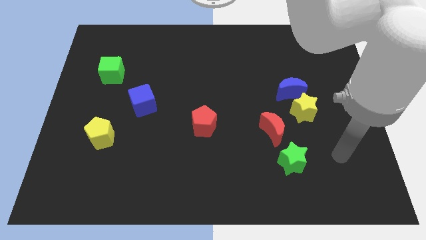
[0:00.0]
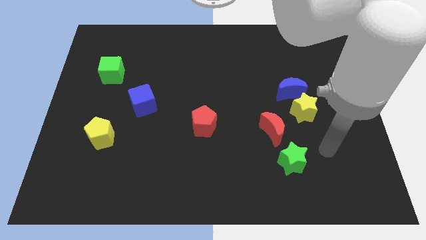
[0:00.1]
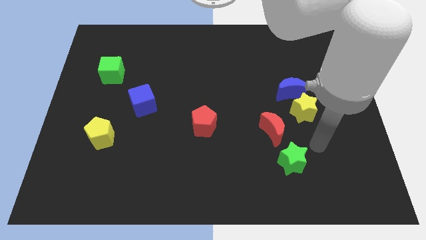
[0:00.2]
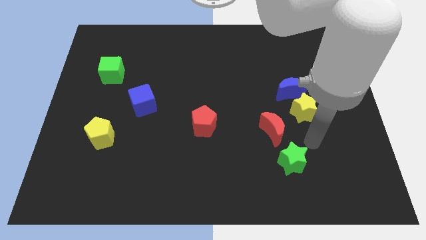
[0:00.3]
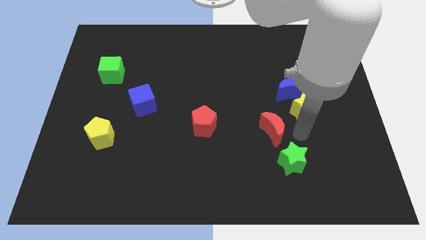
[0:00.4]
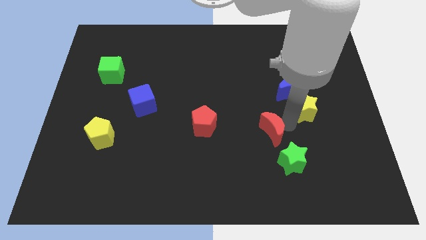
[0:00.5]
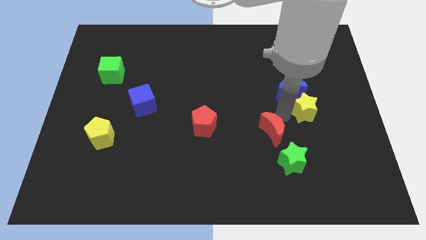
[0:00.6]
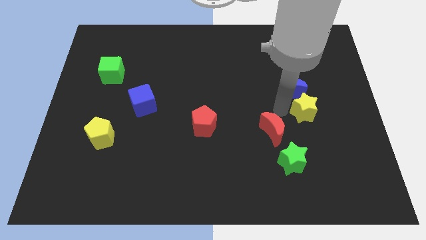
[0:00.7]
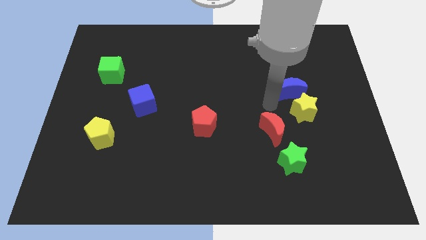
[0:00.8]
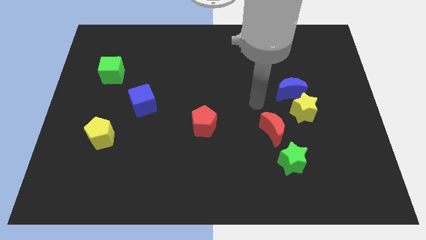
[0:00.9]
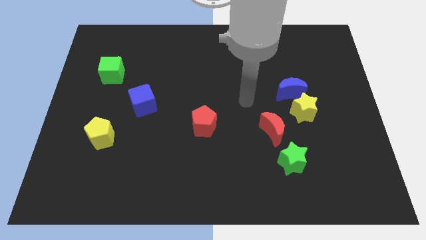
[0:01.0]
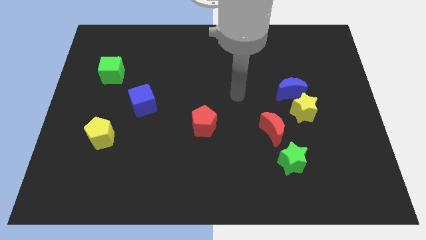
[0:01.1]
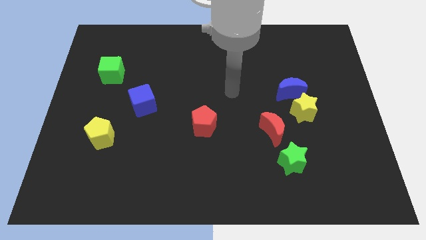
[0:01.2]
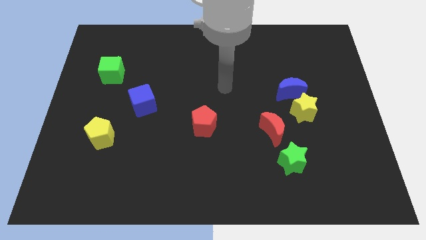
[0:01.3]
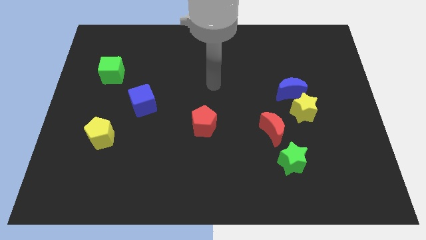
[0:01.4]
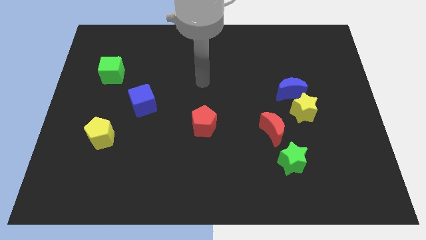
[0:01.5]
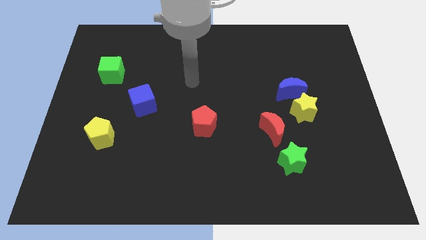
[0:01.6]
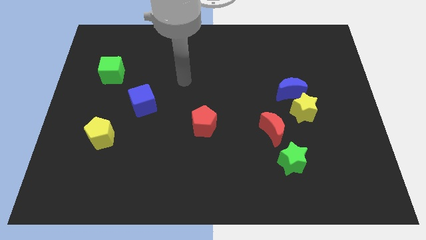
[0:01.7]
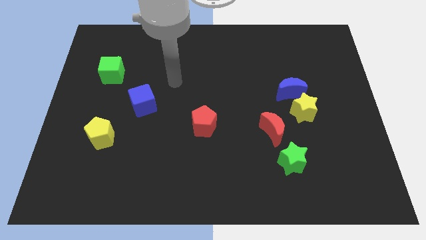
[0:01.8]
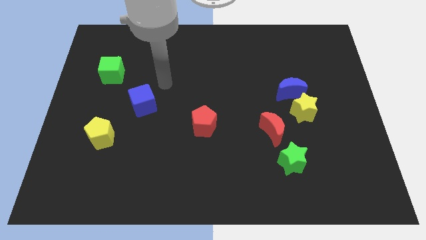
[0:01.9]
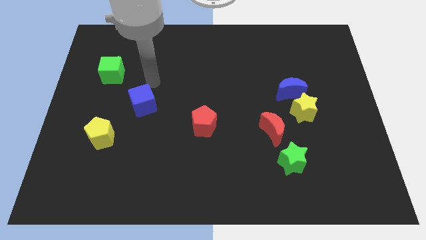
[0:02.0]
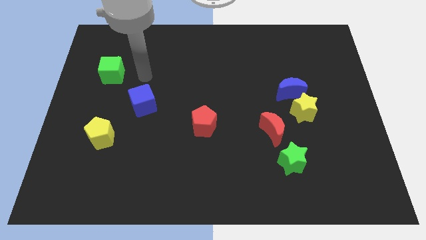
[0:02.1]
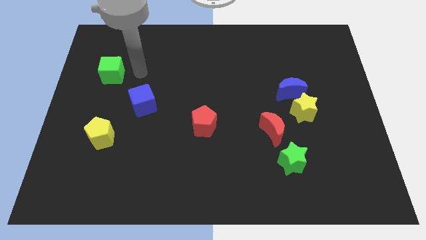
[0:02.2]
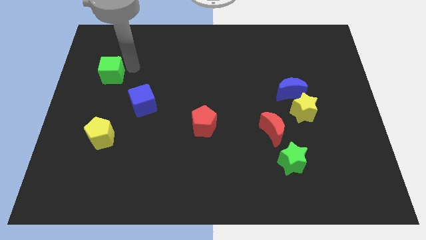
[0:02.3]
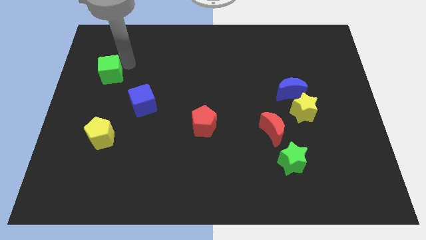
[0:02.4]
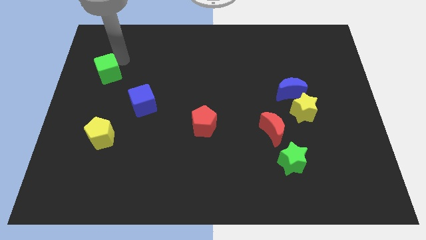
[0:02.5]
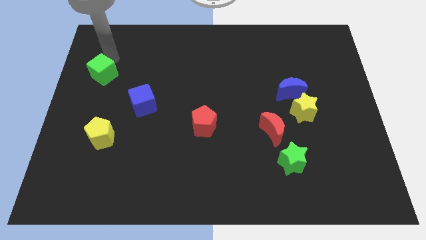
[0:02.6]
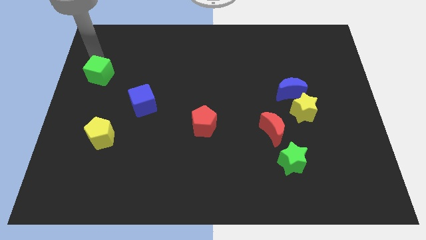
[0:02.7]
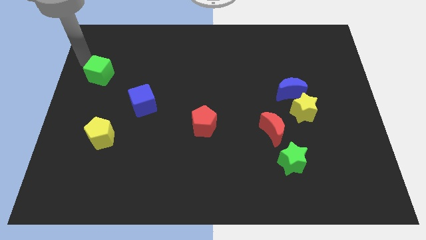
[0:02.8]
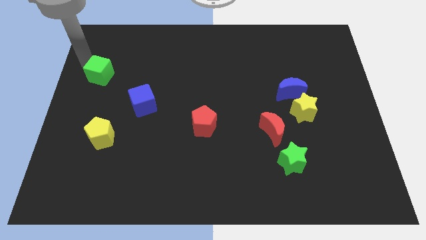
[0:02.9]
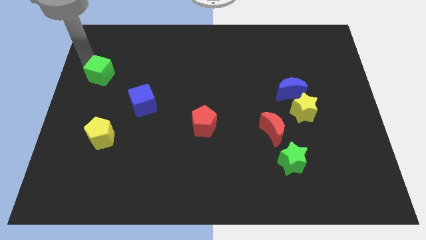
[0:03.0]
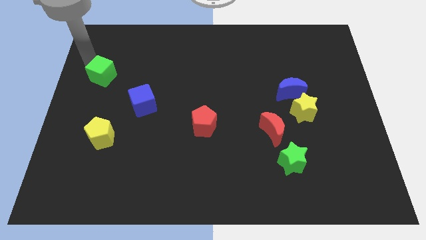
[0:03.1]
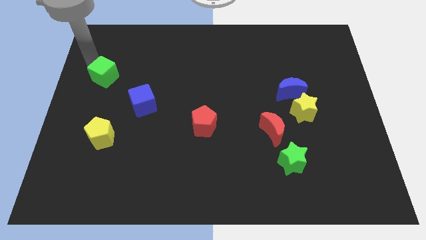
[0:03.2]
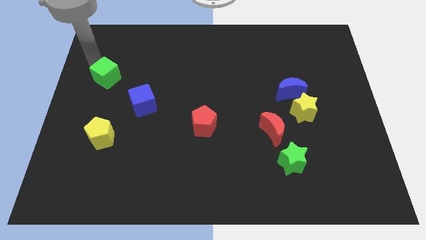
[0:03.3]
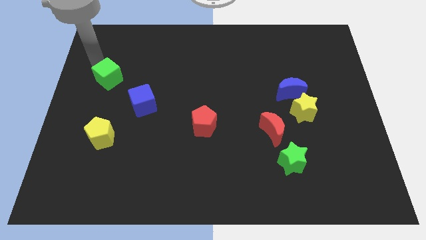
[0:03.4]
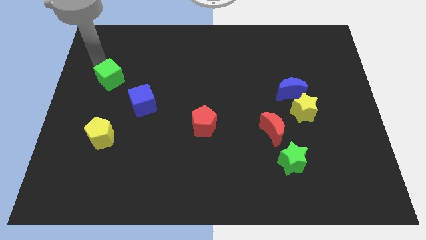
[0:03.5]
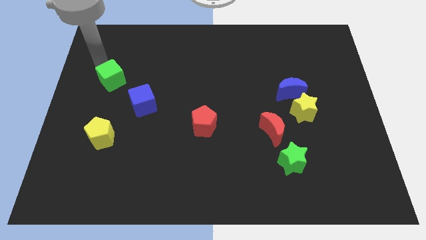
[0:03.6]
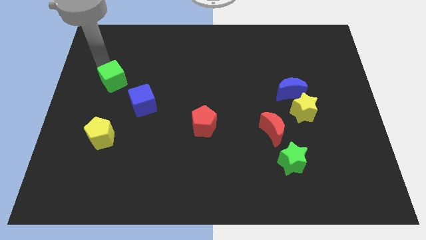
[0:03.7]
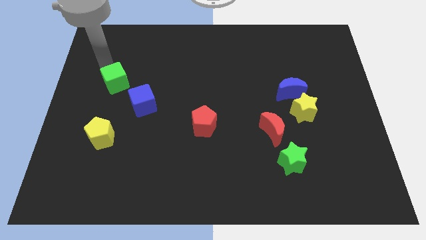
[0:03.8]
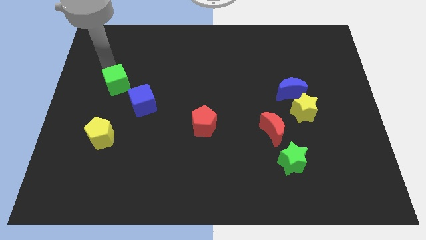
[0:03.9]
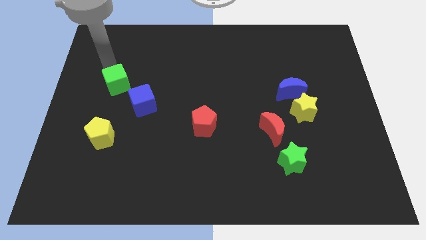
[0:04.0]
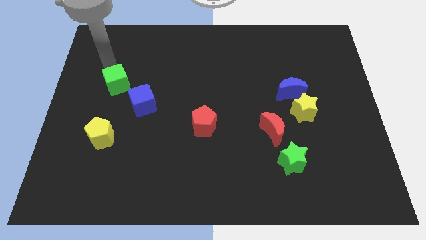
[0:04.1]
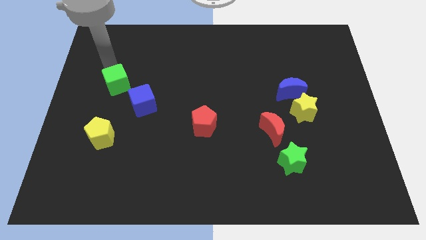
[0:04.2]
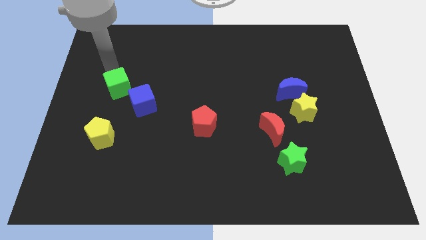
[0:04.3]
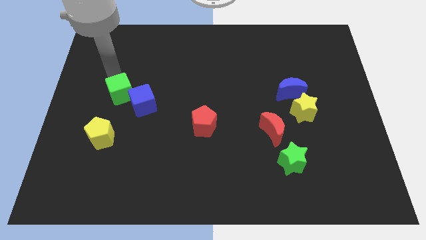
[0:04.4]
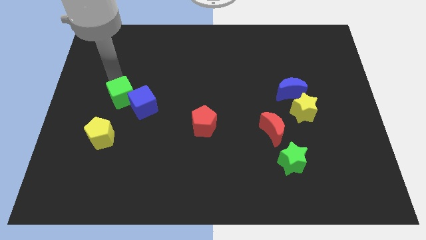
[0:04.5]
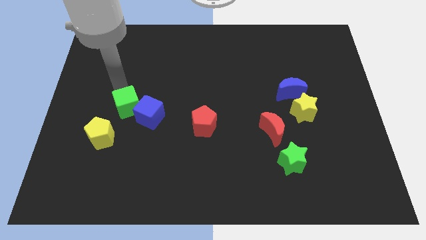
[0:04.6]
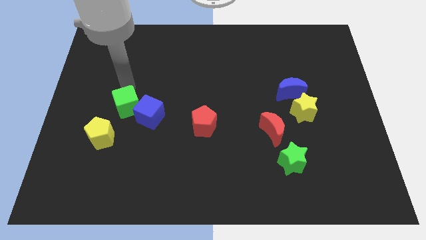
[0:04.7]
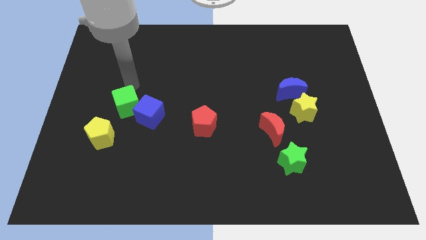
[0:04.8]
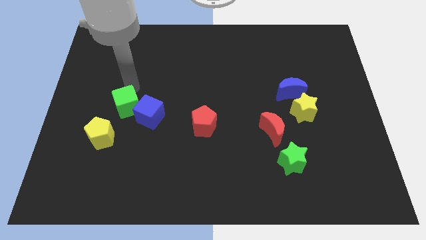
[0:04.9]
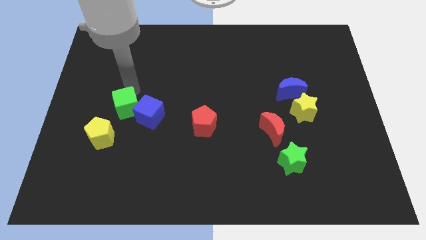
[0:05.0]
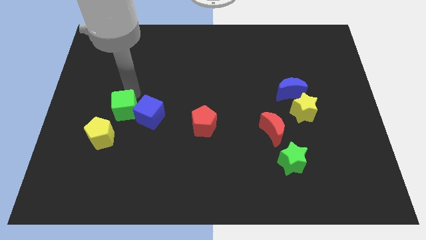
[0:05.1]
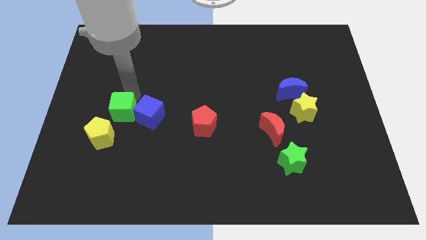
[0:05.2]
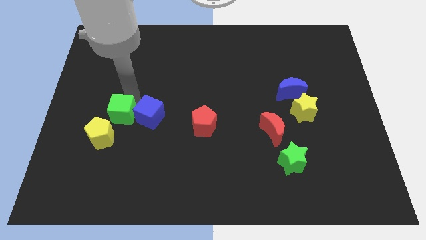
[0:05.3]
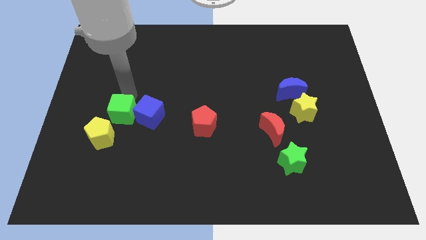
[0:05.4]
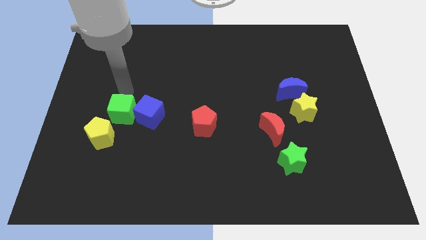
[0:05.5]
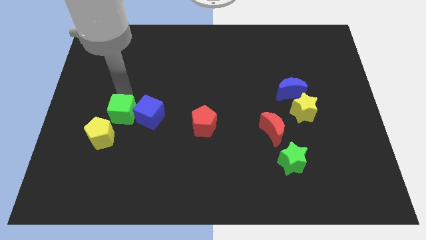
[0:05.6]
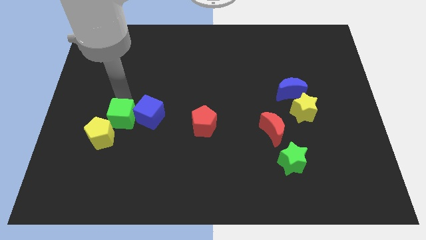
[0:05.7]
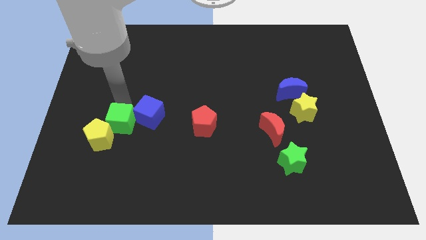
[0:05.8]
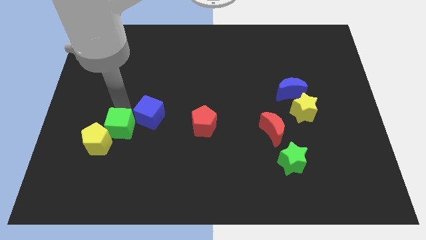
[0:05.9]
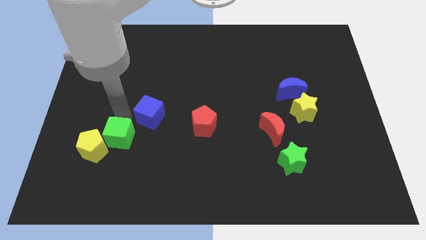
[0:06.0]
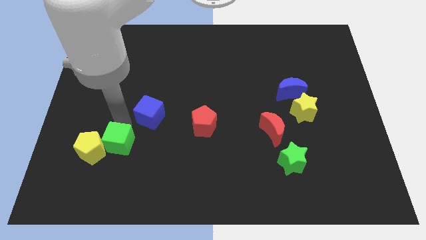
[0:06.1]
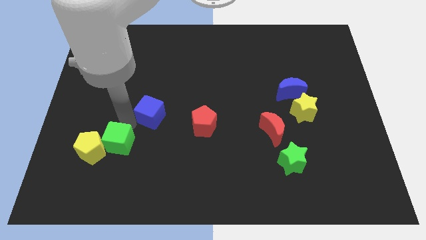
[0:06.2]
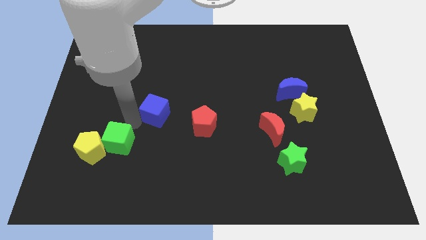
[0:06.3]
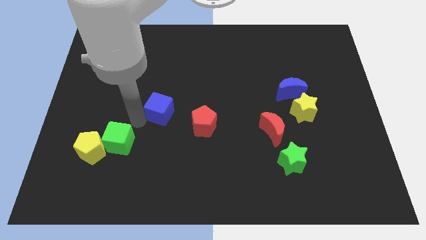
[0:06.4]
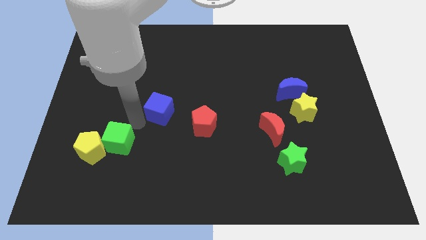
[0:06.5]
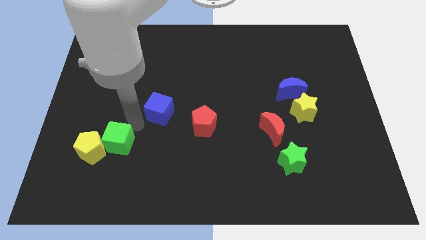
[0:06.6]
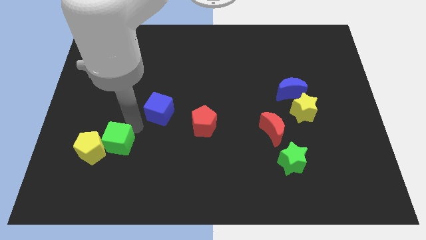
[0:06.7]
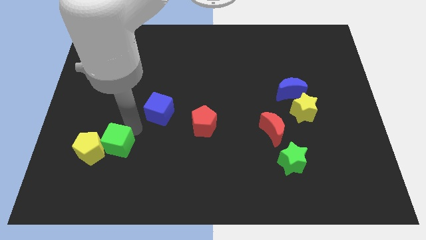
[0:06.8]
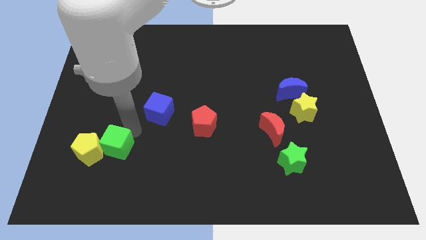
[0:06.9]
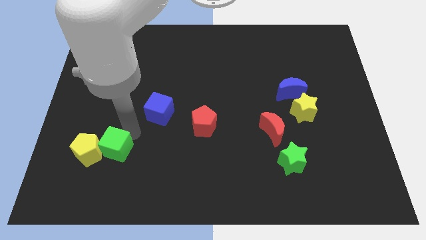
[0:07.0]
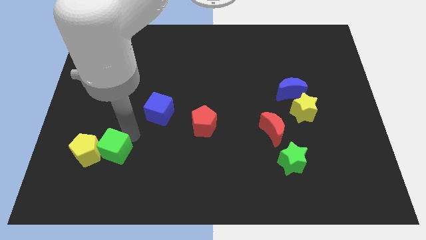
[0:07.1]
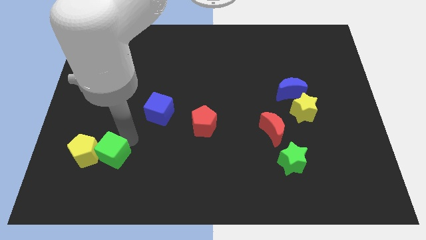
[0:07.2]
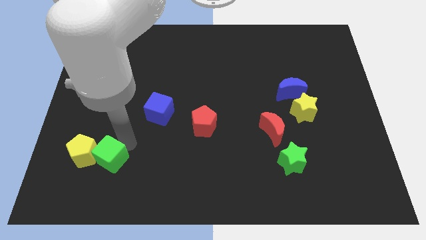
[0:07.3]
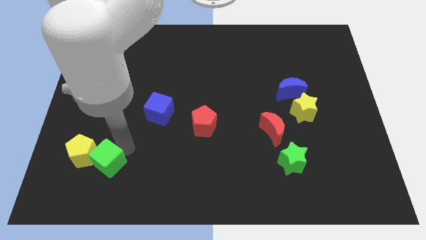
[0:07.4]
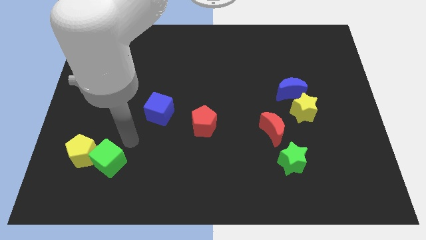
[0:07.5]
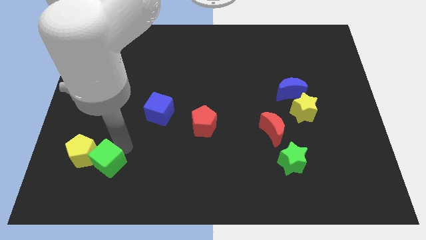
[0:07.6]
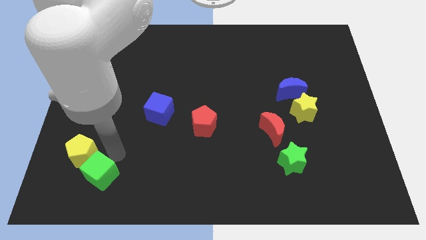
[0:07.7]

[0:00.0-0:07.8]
put the green cube to the bottom side of the yellow pentagon
